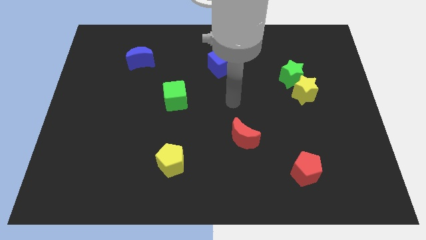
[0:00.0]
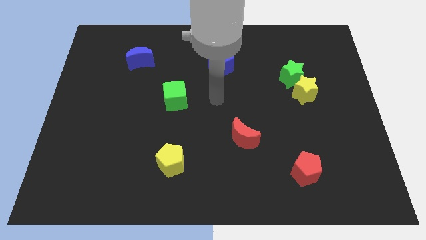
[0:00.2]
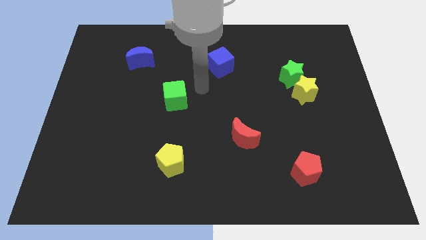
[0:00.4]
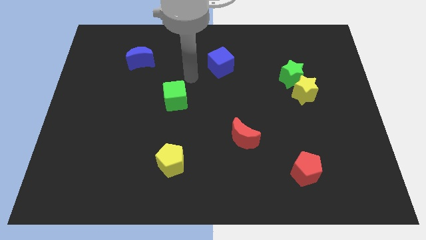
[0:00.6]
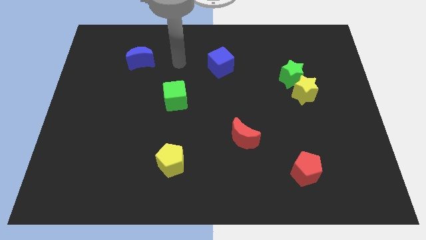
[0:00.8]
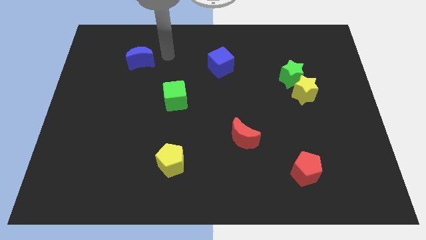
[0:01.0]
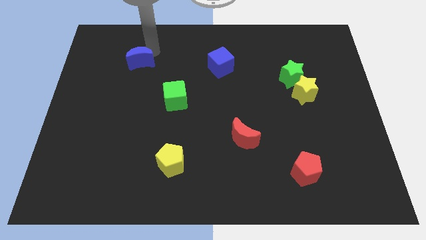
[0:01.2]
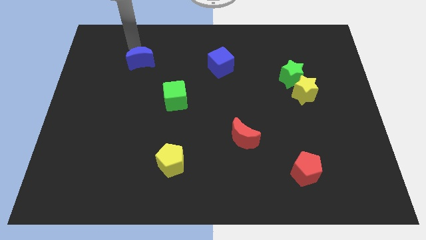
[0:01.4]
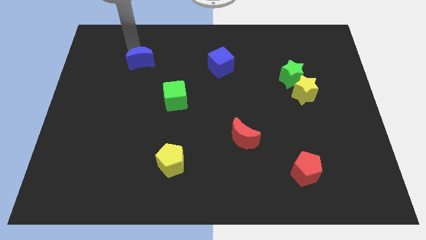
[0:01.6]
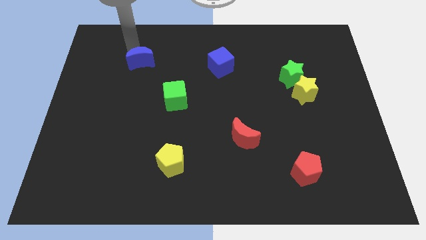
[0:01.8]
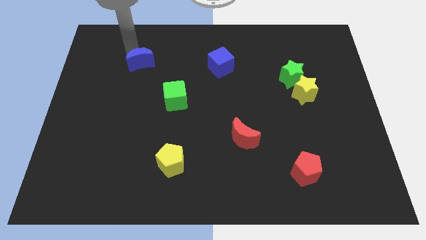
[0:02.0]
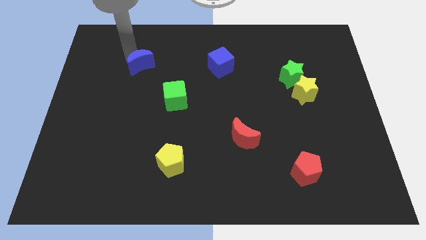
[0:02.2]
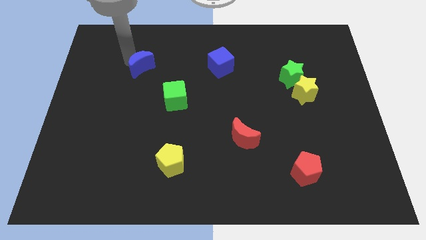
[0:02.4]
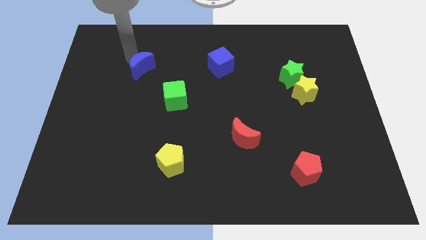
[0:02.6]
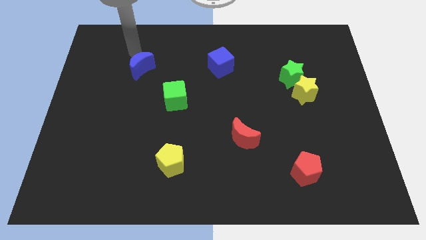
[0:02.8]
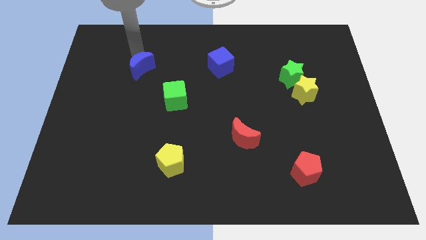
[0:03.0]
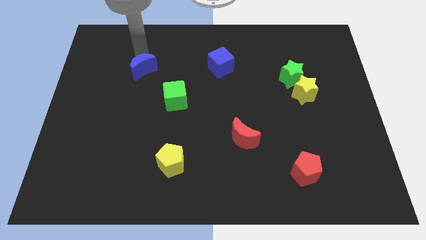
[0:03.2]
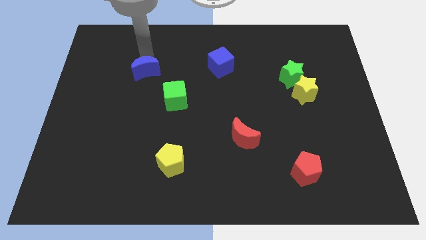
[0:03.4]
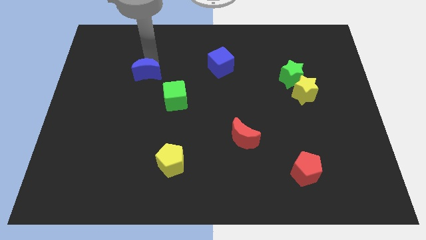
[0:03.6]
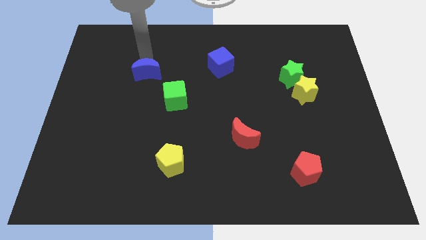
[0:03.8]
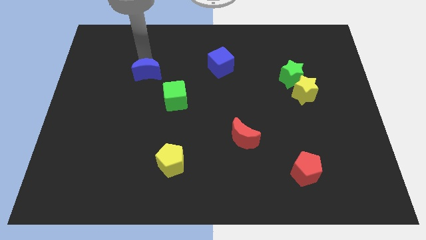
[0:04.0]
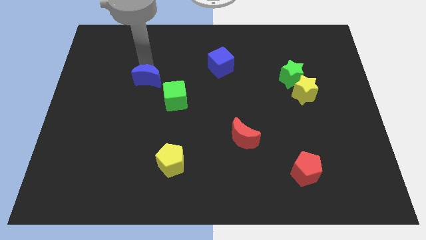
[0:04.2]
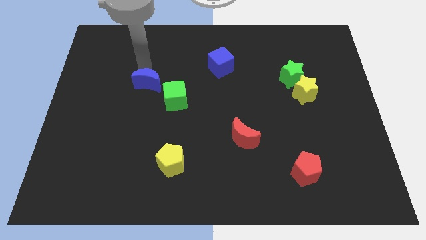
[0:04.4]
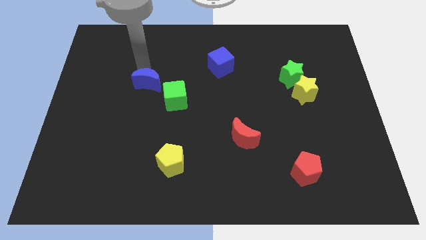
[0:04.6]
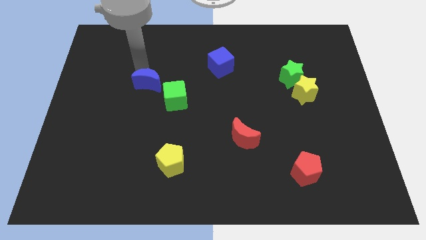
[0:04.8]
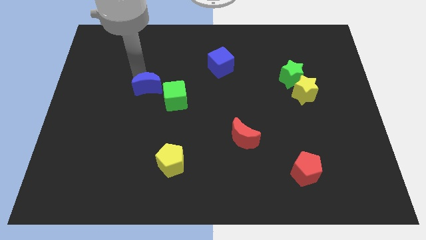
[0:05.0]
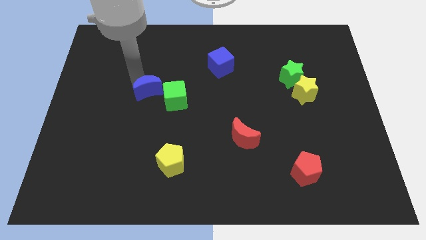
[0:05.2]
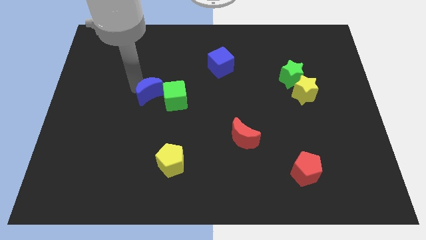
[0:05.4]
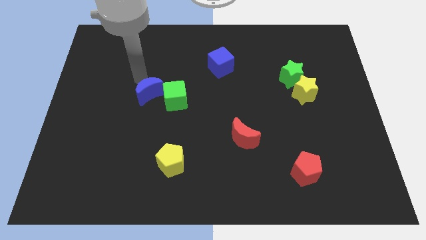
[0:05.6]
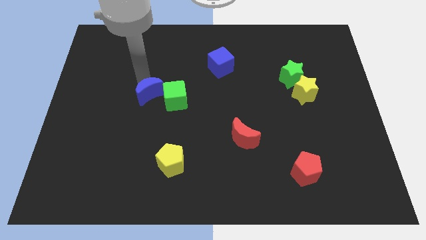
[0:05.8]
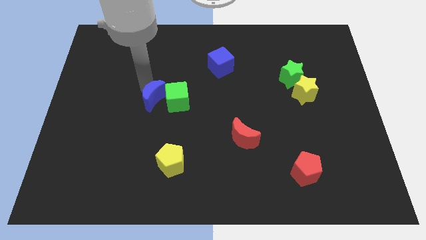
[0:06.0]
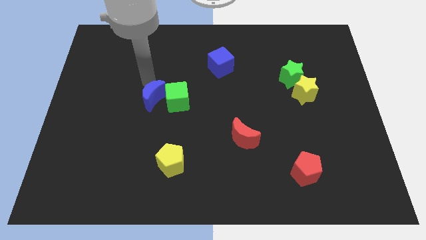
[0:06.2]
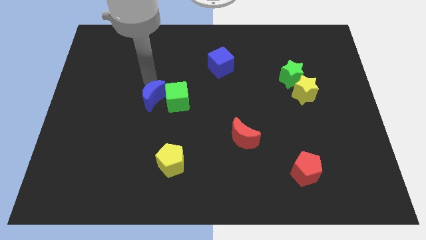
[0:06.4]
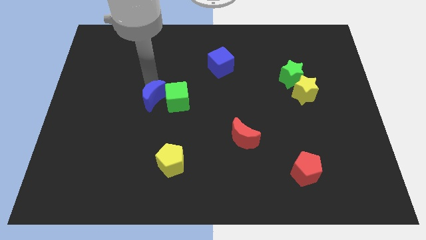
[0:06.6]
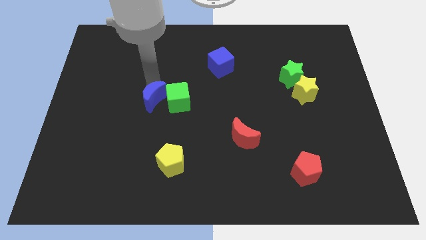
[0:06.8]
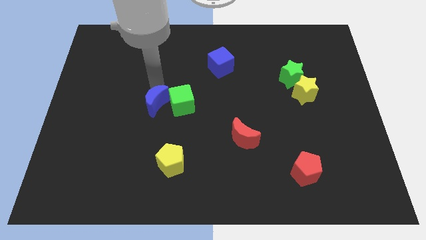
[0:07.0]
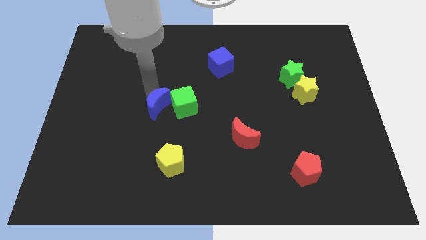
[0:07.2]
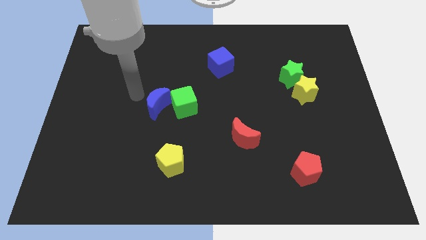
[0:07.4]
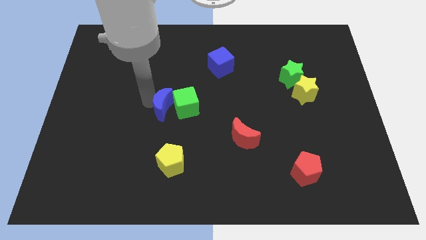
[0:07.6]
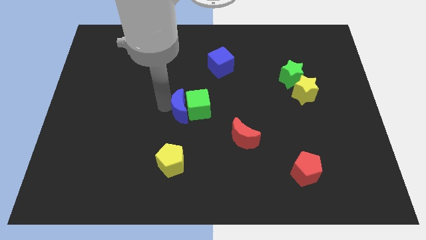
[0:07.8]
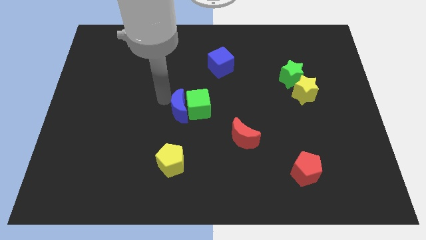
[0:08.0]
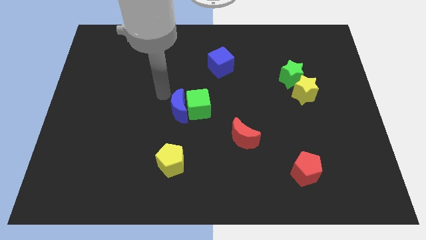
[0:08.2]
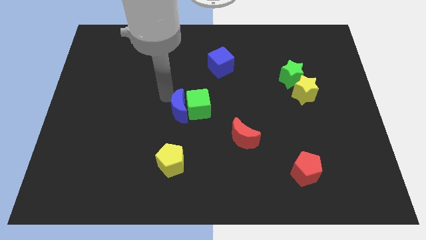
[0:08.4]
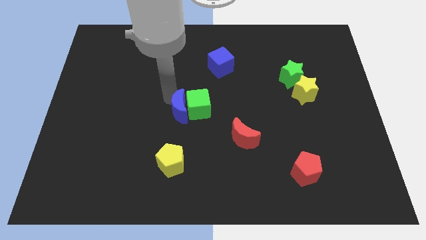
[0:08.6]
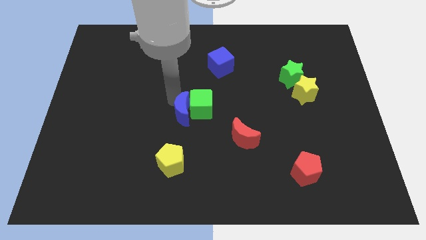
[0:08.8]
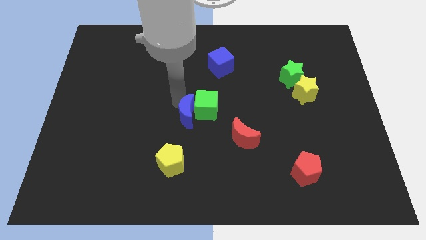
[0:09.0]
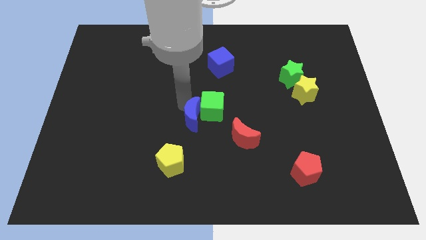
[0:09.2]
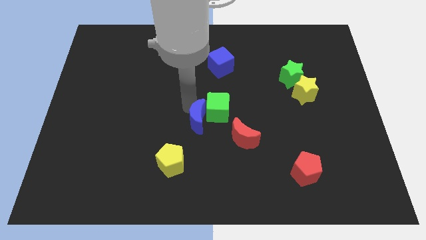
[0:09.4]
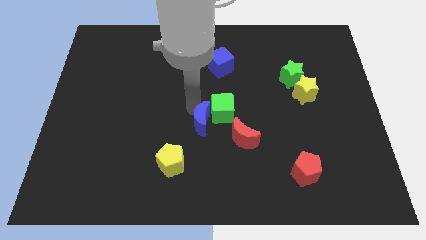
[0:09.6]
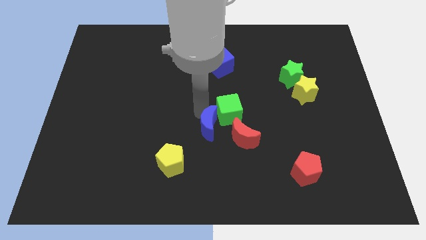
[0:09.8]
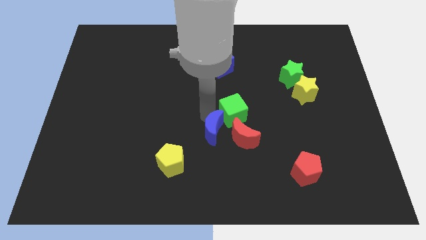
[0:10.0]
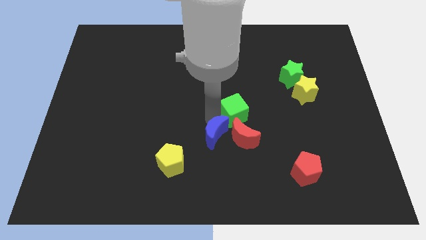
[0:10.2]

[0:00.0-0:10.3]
move the blue moon towards the red moon

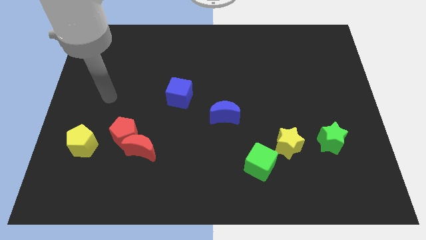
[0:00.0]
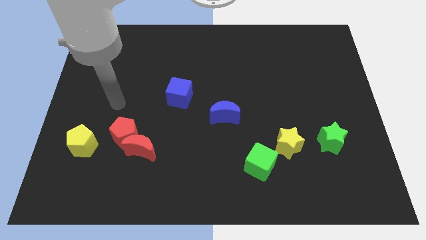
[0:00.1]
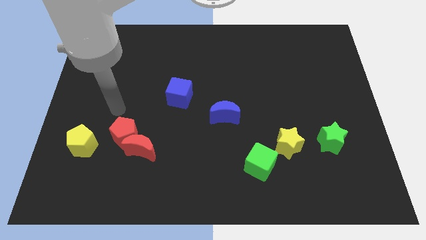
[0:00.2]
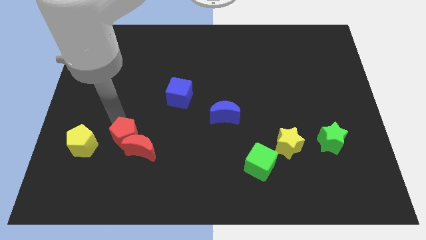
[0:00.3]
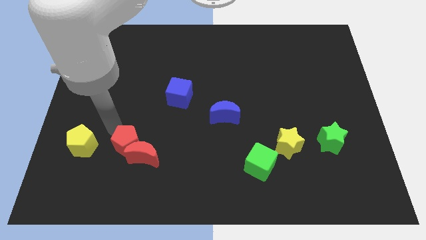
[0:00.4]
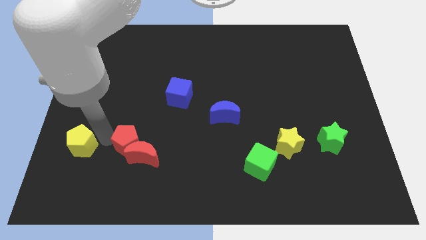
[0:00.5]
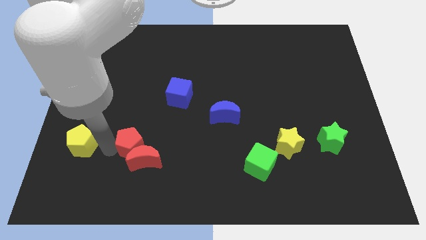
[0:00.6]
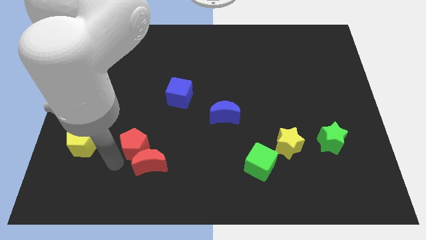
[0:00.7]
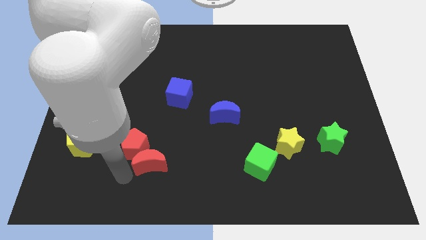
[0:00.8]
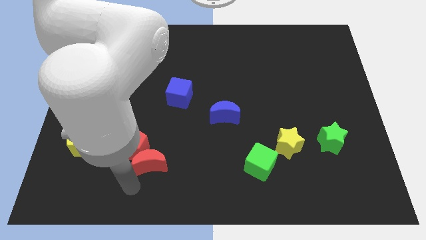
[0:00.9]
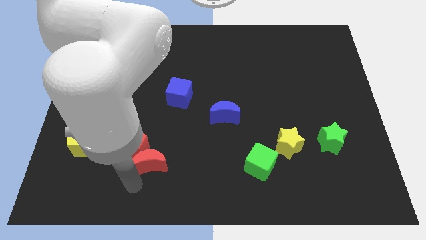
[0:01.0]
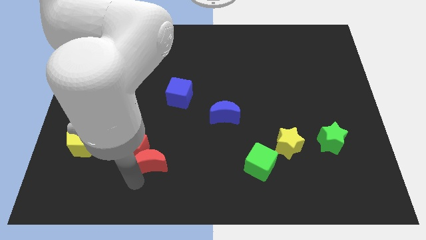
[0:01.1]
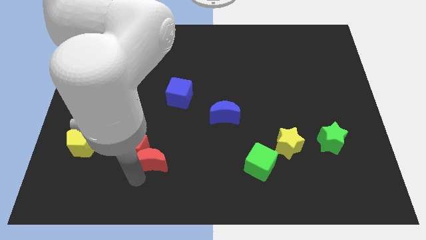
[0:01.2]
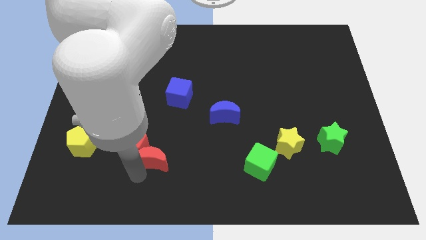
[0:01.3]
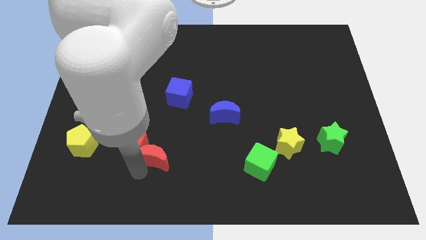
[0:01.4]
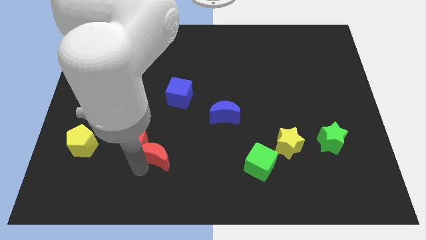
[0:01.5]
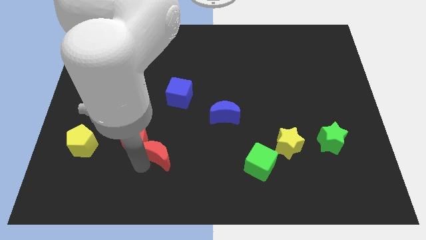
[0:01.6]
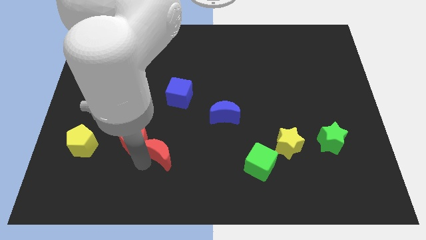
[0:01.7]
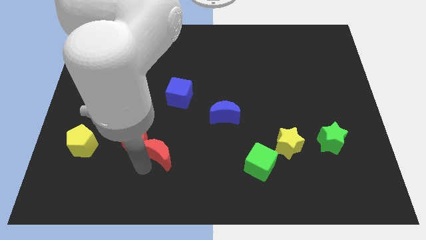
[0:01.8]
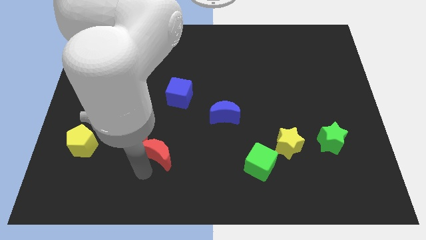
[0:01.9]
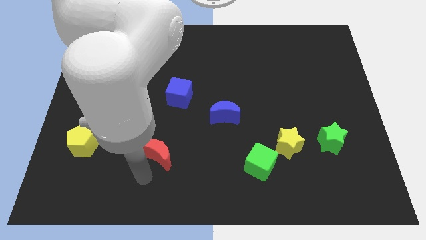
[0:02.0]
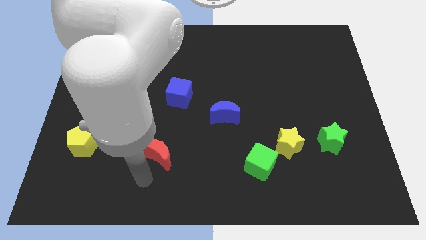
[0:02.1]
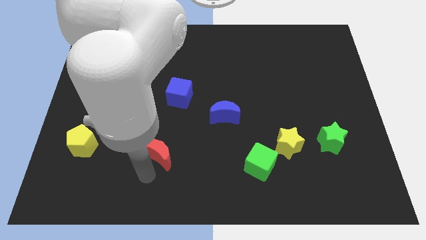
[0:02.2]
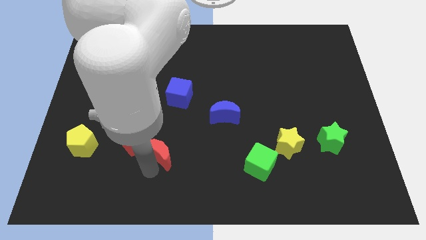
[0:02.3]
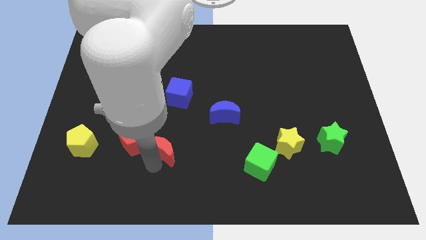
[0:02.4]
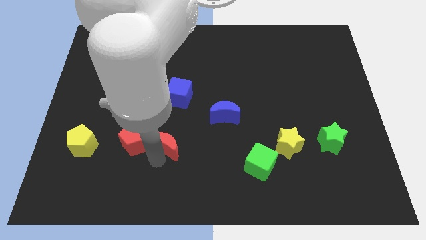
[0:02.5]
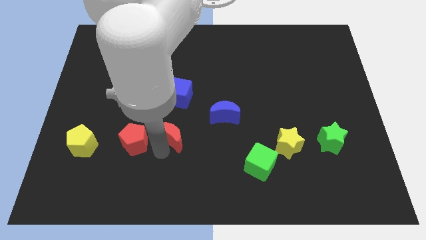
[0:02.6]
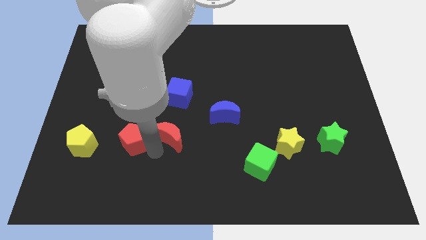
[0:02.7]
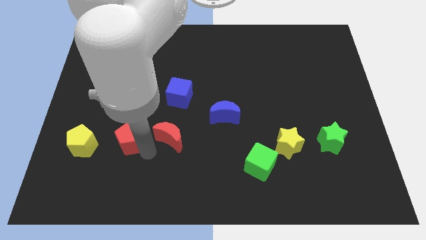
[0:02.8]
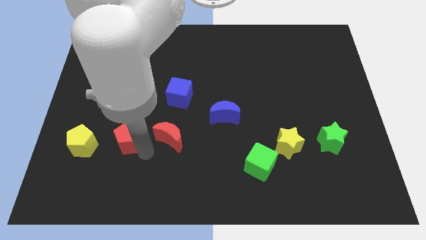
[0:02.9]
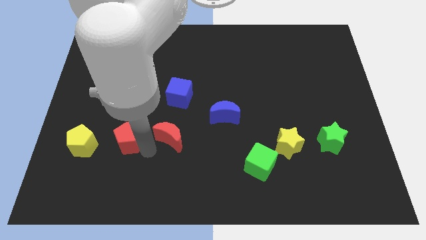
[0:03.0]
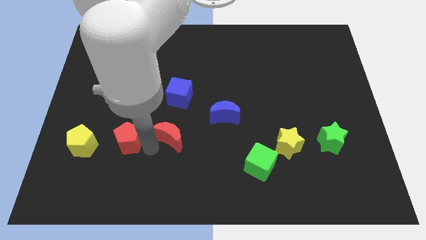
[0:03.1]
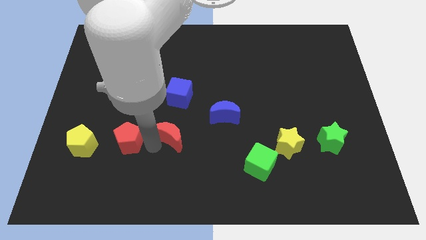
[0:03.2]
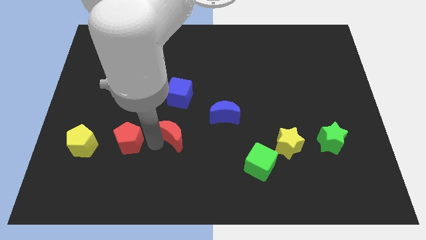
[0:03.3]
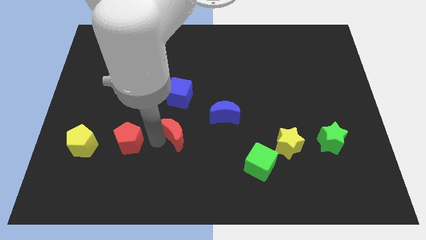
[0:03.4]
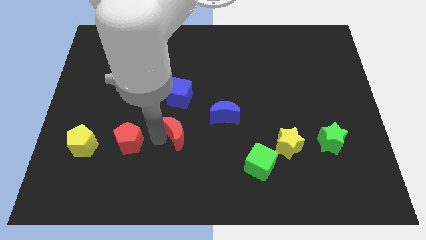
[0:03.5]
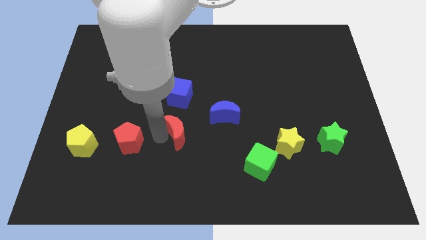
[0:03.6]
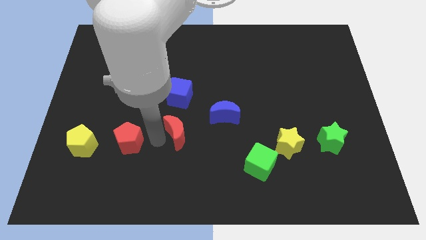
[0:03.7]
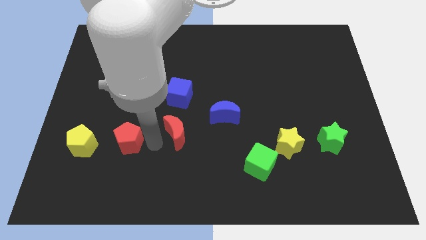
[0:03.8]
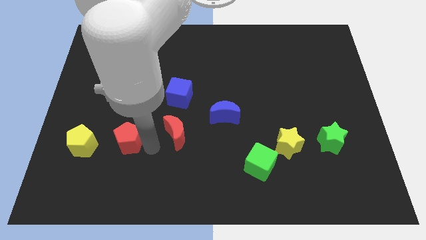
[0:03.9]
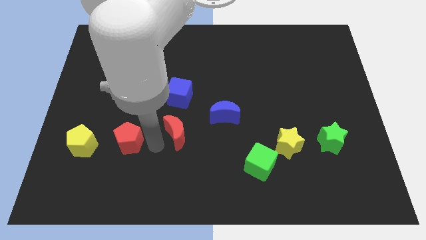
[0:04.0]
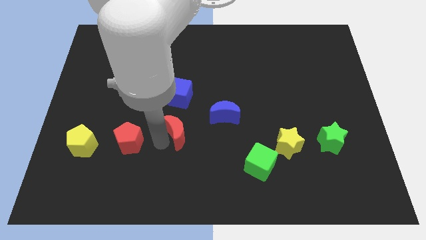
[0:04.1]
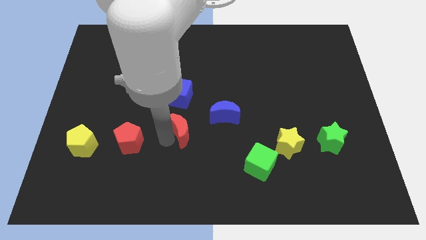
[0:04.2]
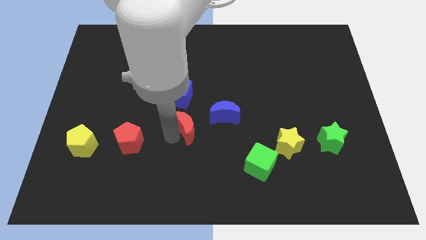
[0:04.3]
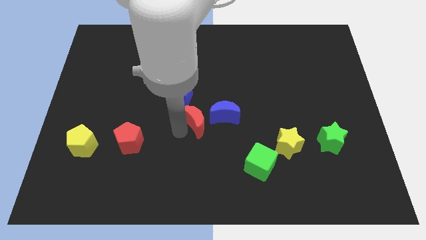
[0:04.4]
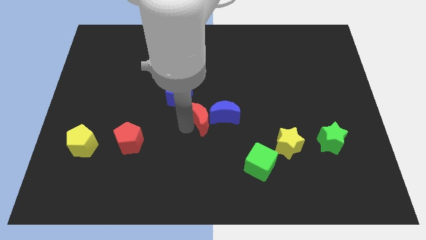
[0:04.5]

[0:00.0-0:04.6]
move the red moon towards the blue moon
